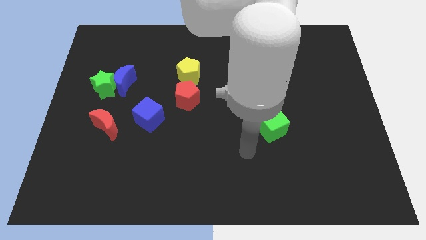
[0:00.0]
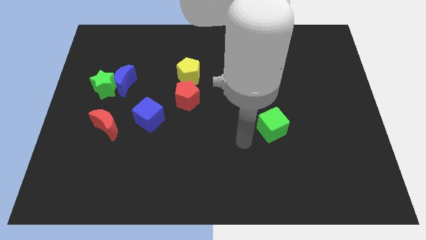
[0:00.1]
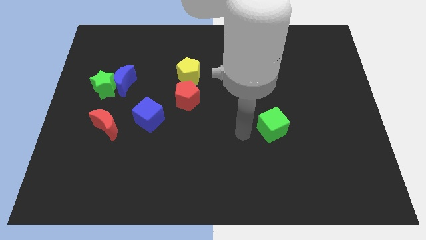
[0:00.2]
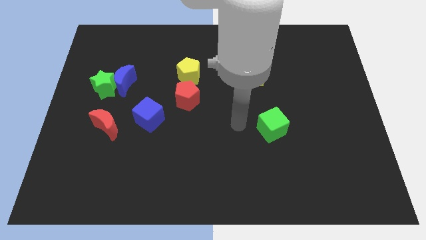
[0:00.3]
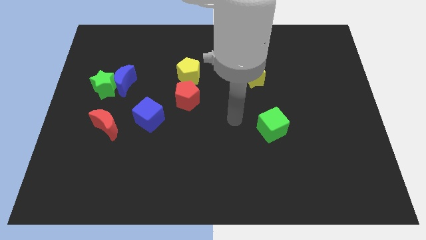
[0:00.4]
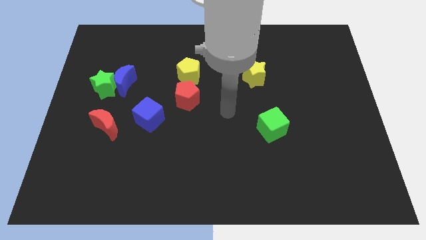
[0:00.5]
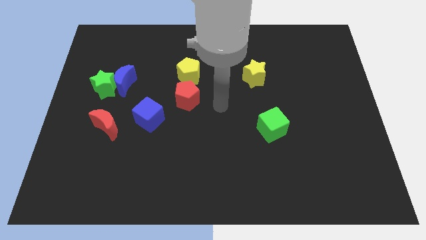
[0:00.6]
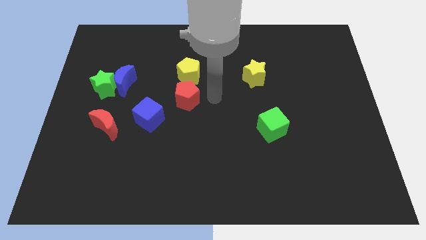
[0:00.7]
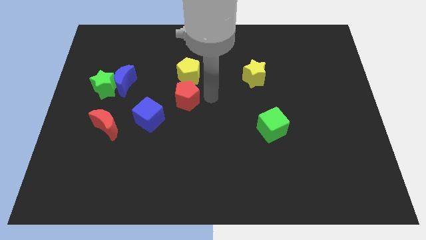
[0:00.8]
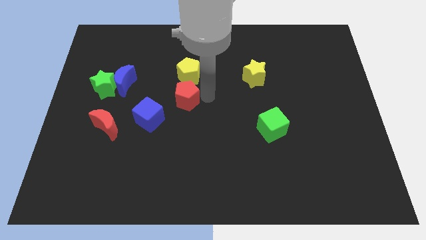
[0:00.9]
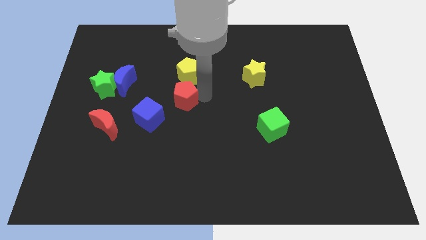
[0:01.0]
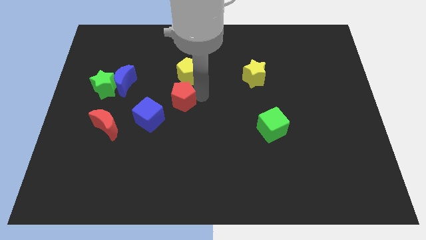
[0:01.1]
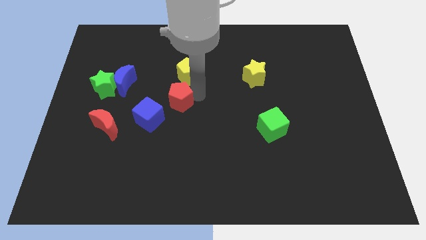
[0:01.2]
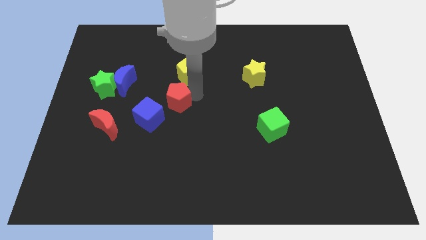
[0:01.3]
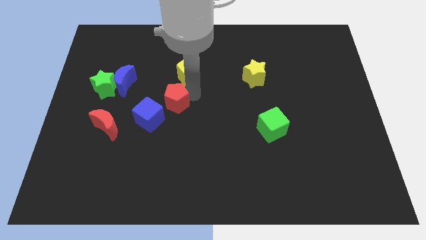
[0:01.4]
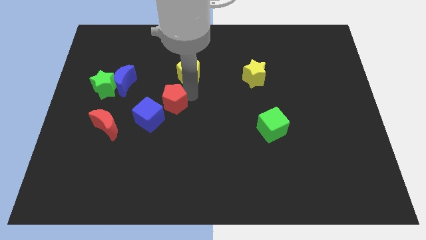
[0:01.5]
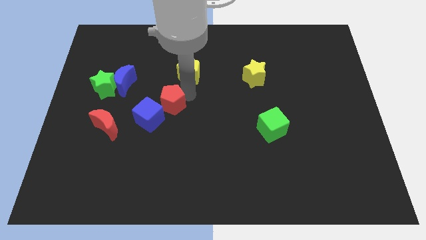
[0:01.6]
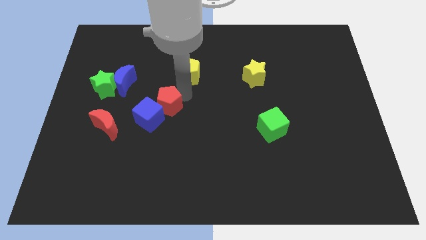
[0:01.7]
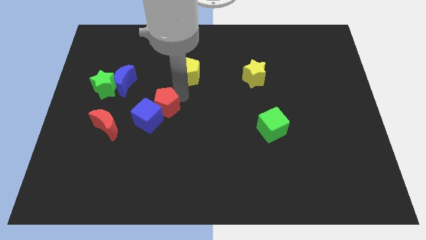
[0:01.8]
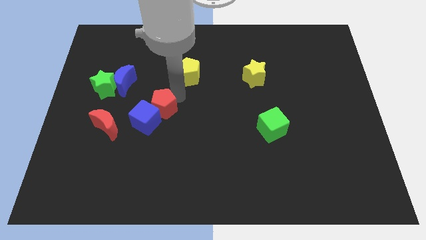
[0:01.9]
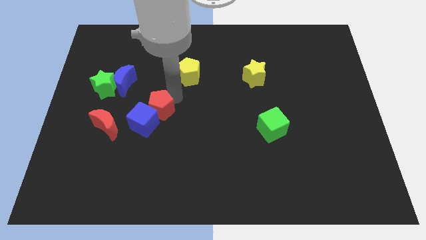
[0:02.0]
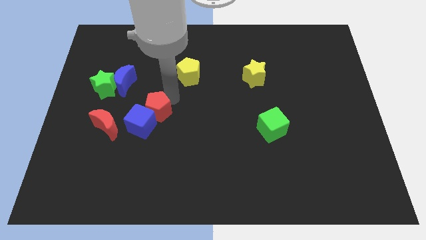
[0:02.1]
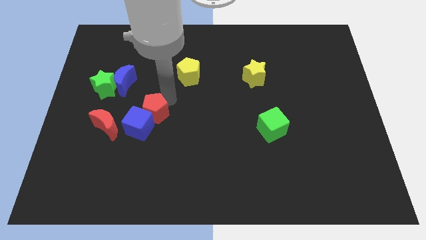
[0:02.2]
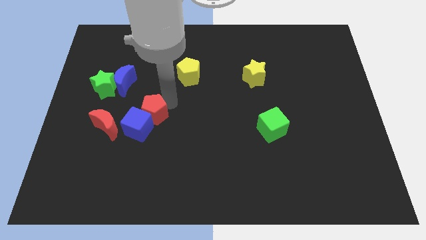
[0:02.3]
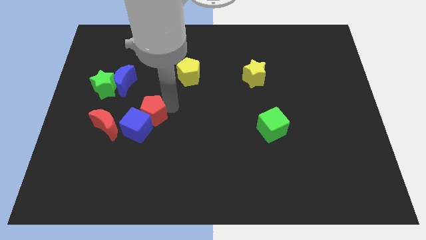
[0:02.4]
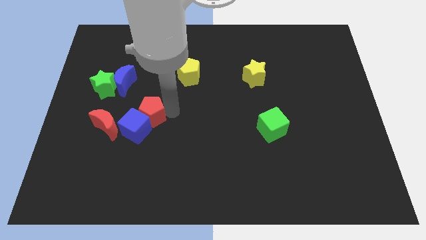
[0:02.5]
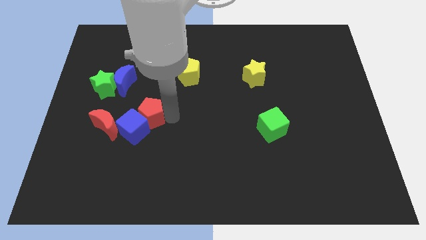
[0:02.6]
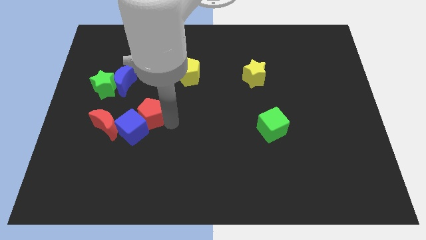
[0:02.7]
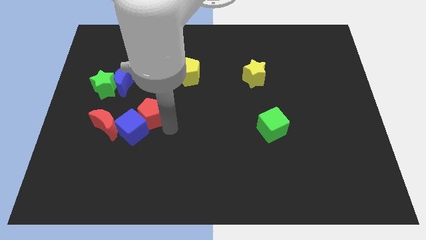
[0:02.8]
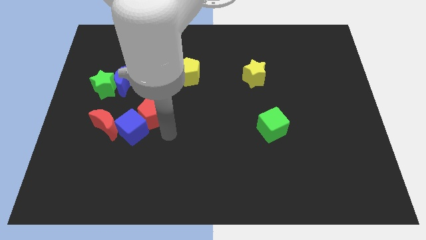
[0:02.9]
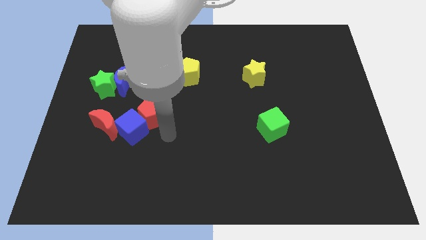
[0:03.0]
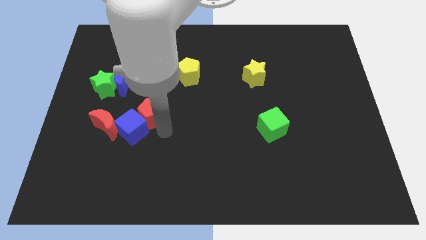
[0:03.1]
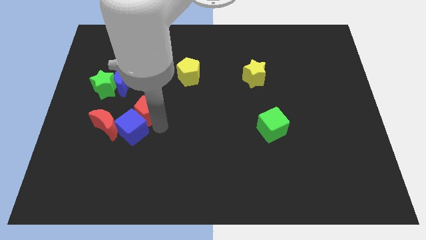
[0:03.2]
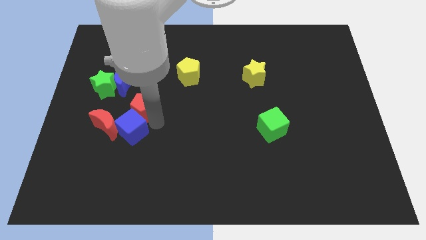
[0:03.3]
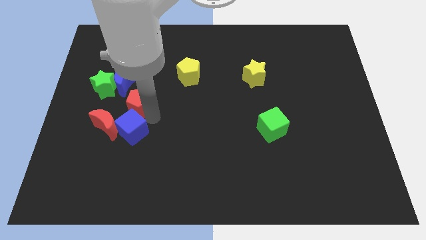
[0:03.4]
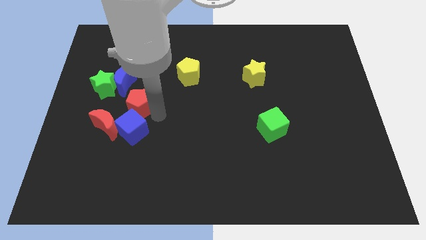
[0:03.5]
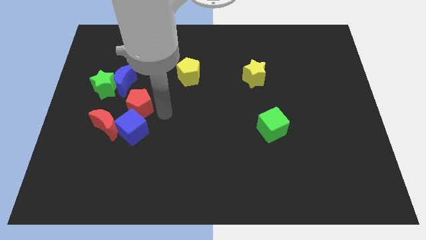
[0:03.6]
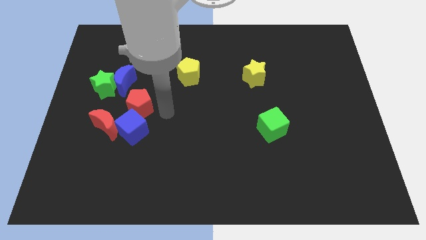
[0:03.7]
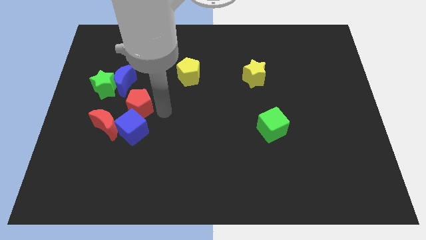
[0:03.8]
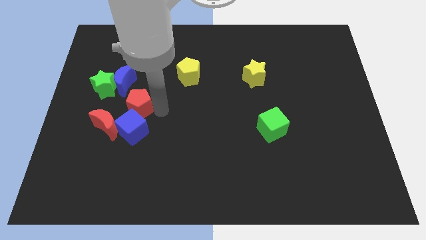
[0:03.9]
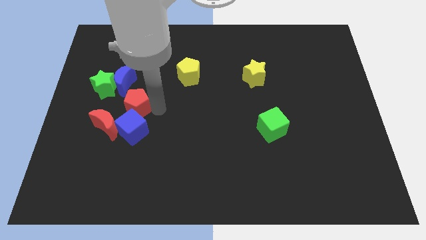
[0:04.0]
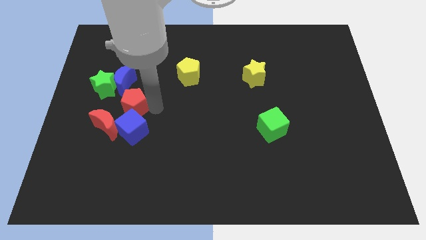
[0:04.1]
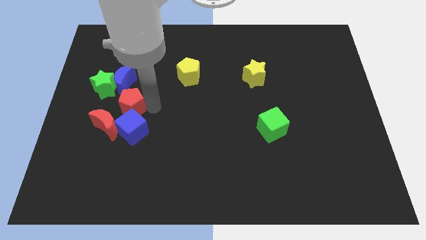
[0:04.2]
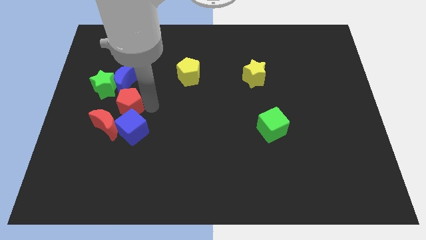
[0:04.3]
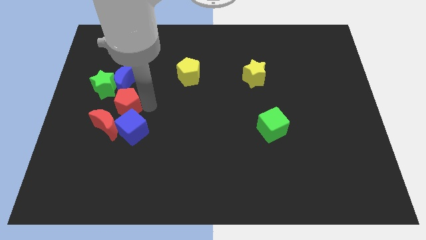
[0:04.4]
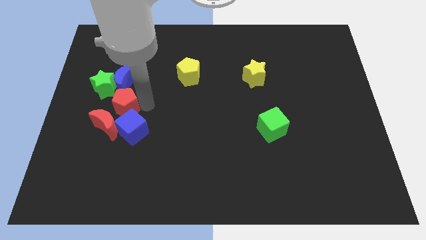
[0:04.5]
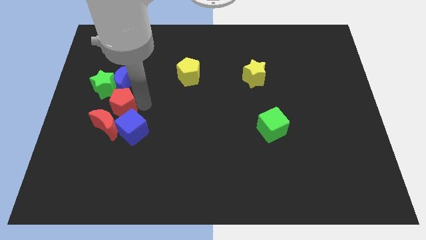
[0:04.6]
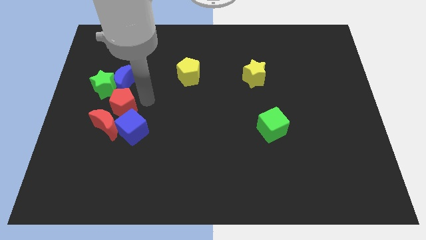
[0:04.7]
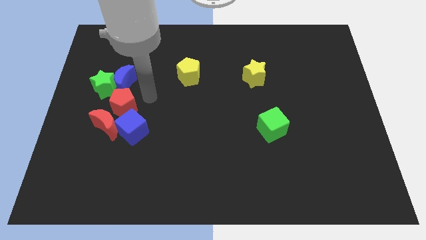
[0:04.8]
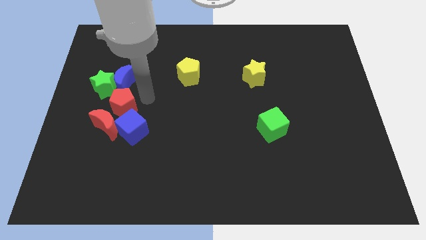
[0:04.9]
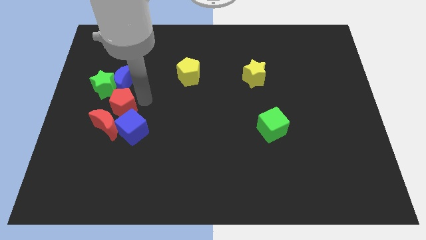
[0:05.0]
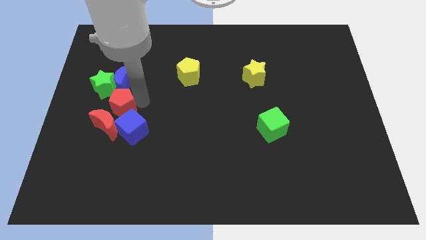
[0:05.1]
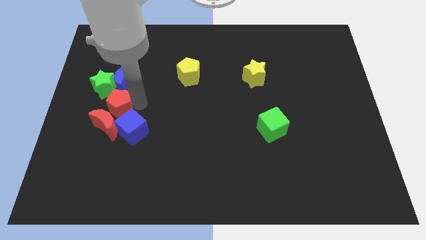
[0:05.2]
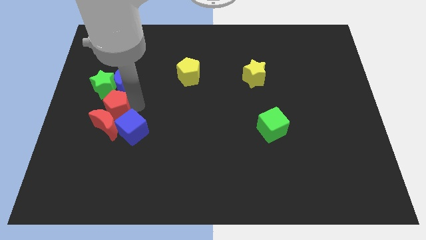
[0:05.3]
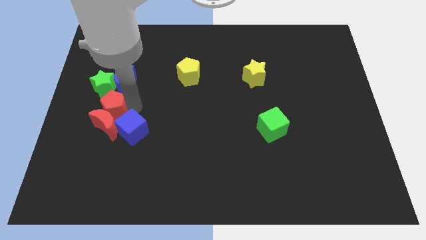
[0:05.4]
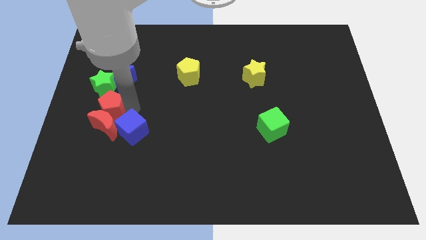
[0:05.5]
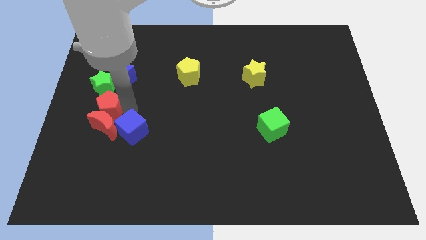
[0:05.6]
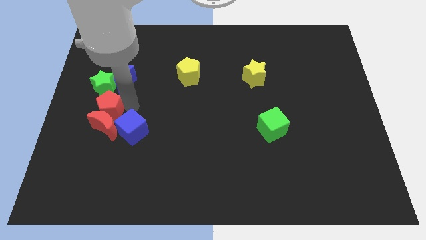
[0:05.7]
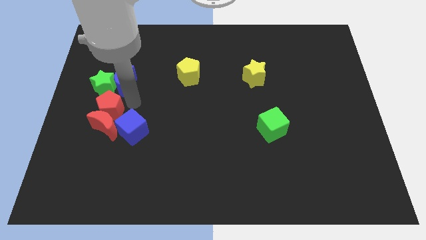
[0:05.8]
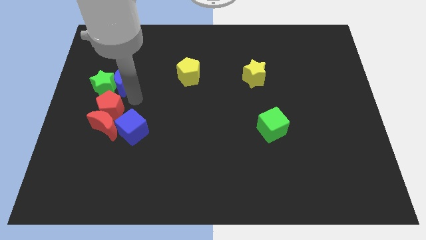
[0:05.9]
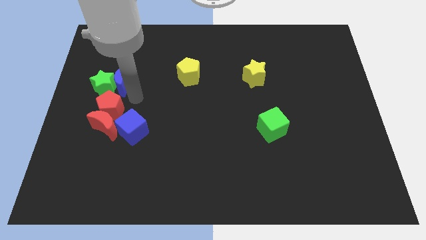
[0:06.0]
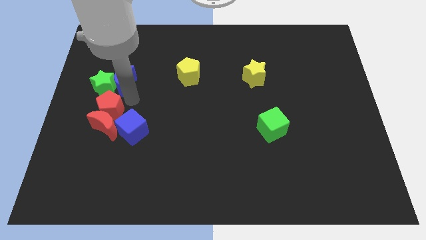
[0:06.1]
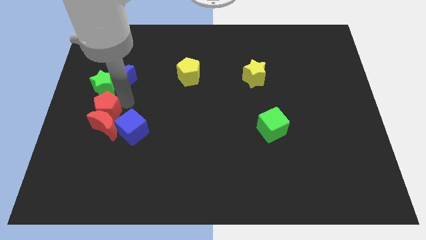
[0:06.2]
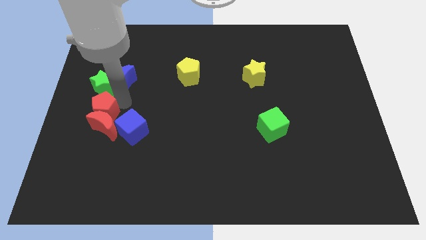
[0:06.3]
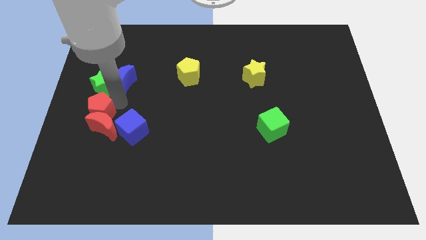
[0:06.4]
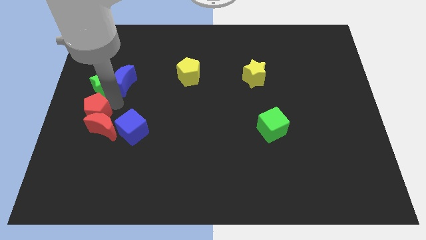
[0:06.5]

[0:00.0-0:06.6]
push the red pentagon just left of the blue cube

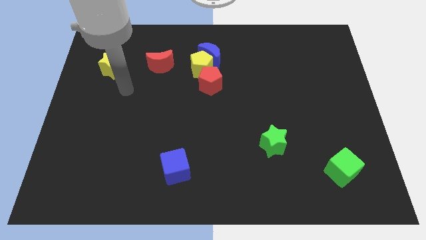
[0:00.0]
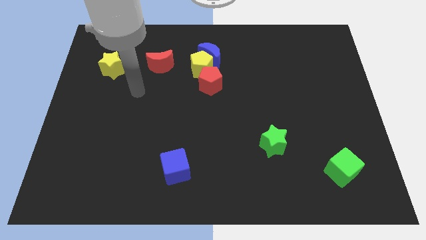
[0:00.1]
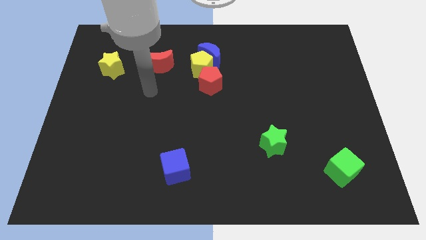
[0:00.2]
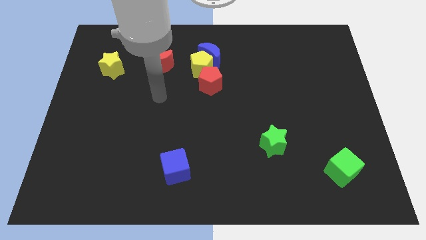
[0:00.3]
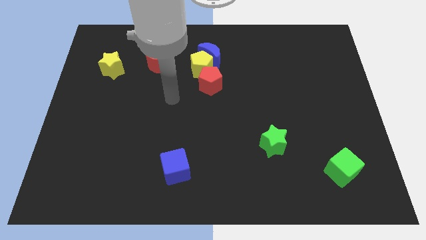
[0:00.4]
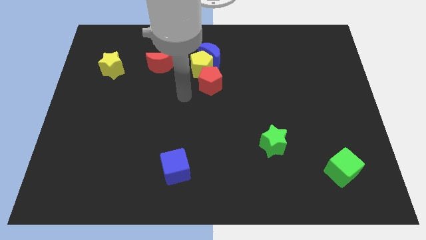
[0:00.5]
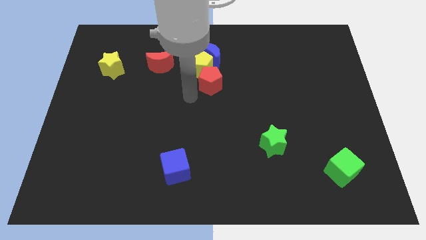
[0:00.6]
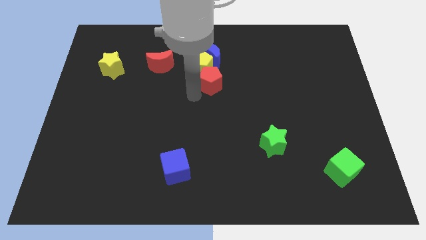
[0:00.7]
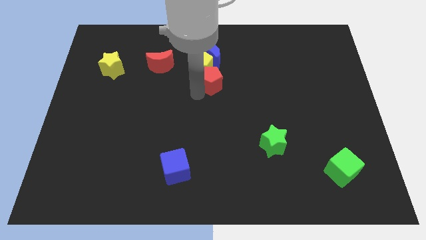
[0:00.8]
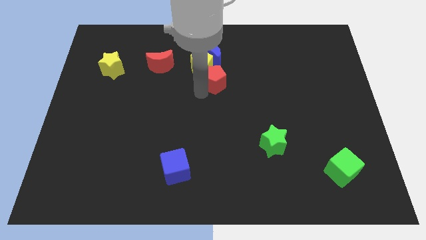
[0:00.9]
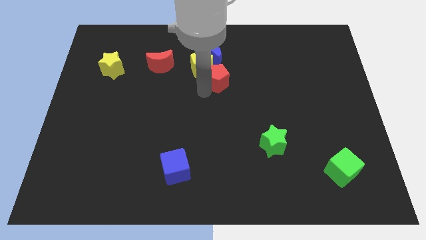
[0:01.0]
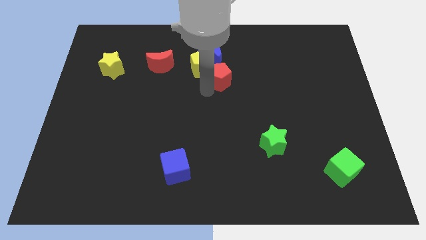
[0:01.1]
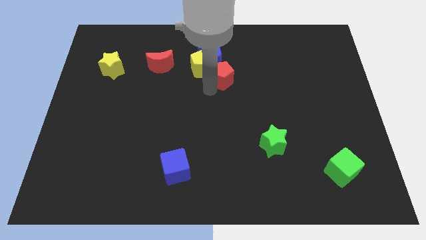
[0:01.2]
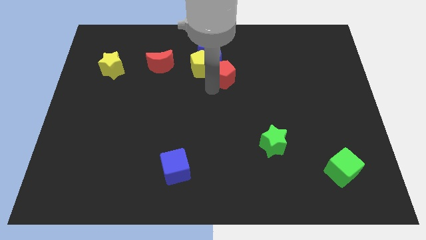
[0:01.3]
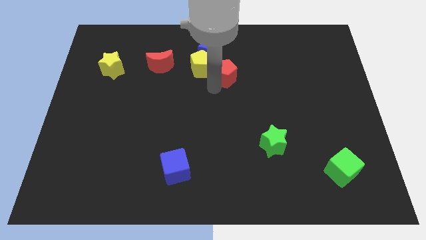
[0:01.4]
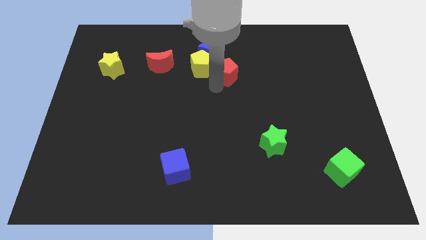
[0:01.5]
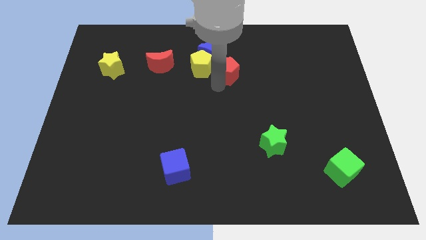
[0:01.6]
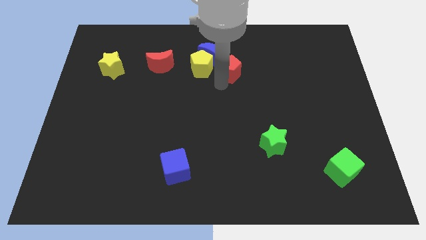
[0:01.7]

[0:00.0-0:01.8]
put the red pentagon to the right of the blue moon
